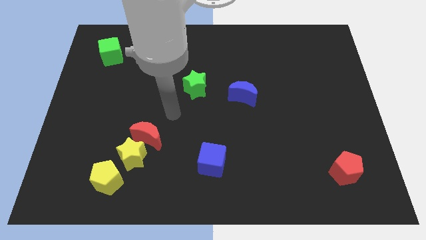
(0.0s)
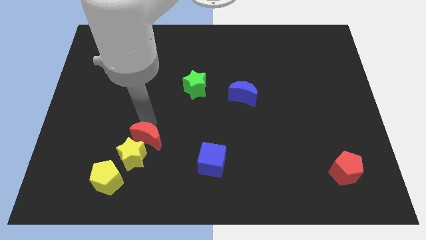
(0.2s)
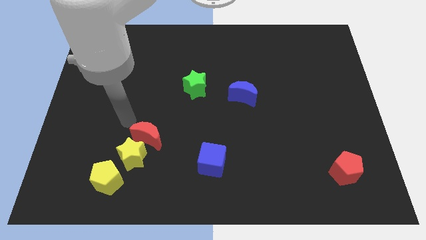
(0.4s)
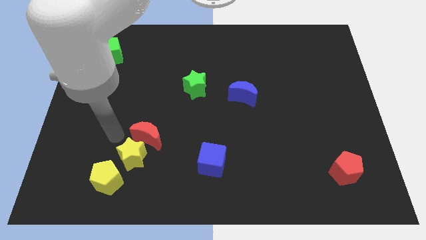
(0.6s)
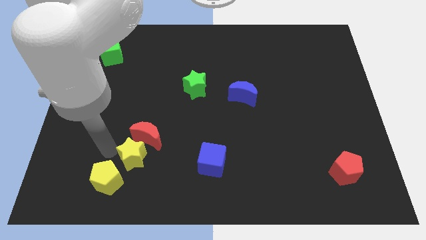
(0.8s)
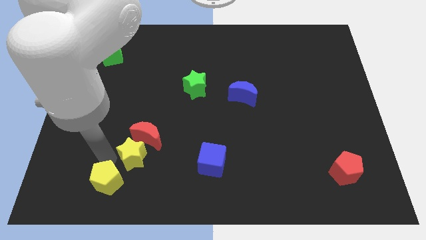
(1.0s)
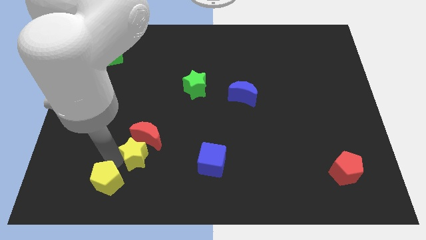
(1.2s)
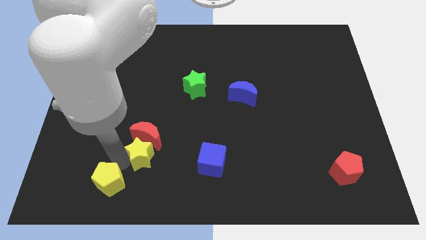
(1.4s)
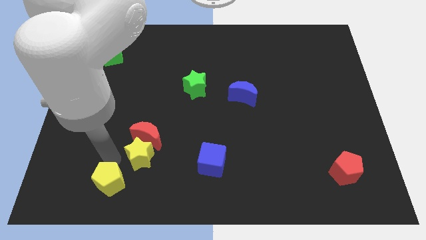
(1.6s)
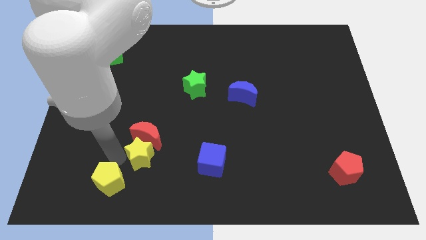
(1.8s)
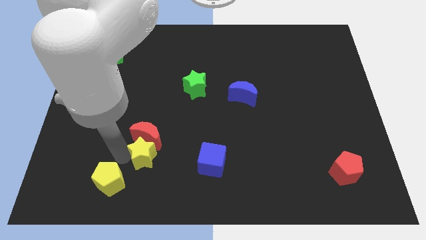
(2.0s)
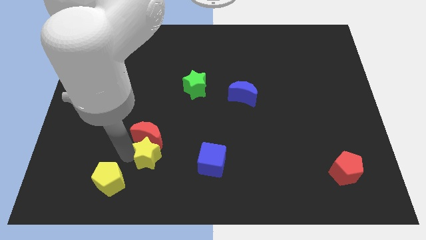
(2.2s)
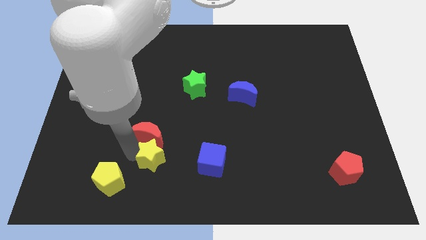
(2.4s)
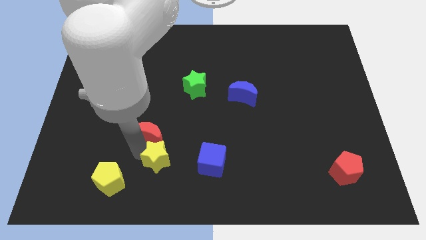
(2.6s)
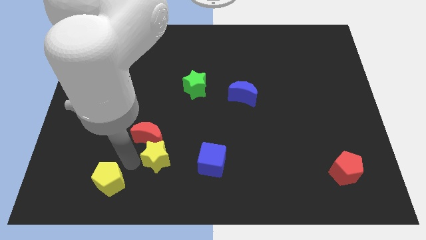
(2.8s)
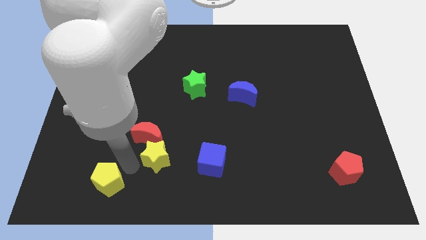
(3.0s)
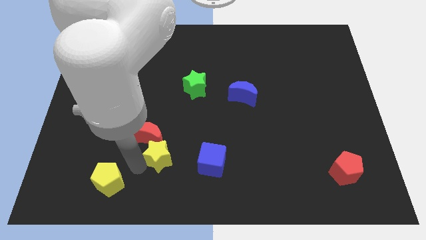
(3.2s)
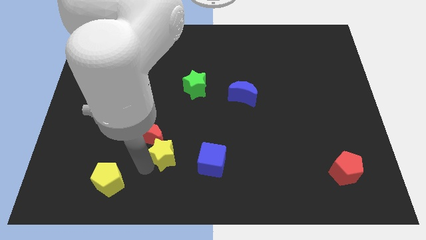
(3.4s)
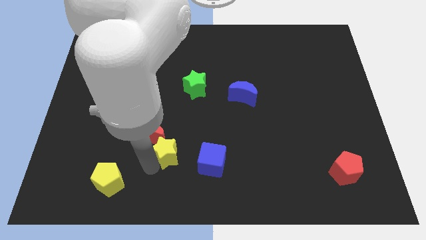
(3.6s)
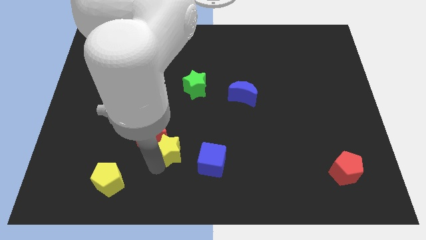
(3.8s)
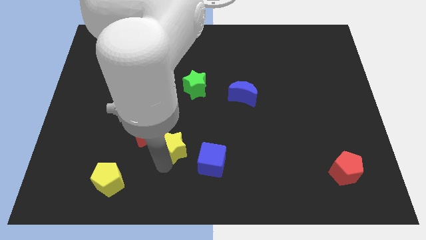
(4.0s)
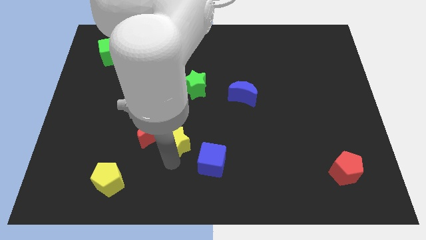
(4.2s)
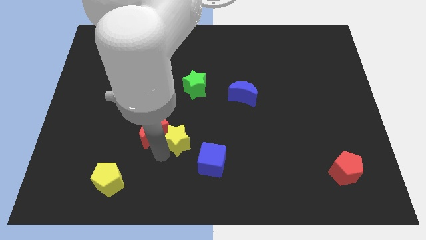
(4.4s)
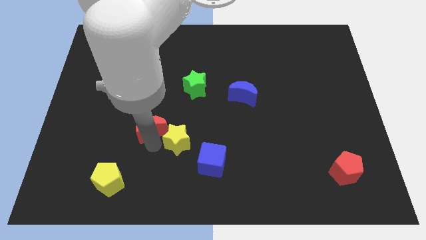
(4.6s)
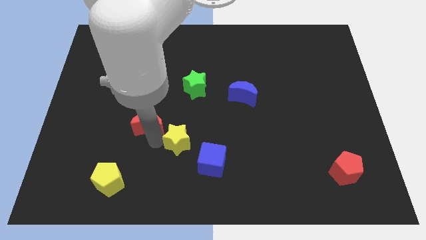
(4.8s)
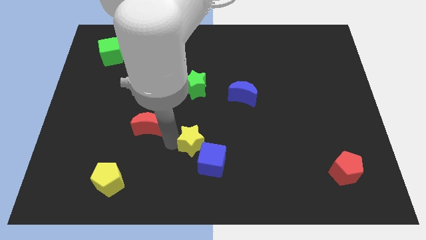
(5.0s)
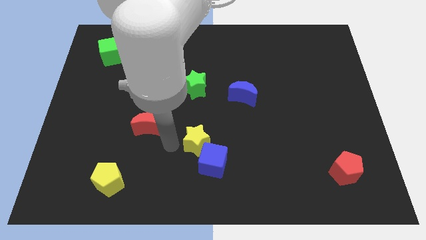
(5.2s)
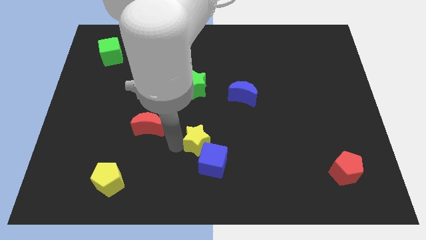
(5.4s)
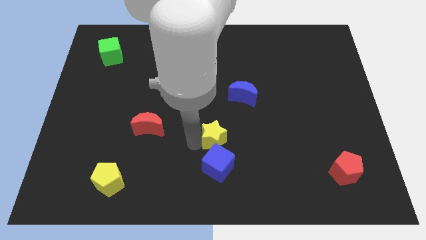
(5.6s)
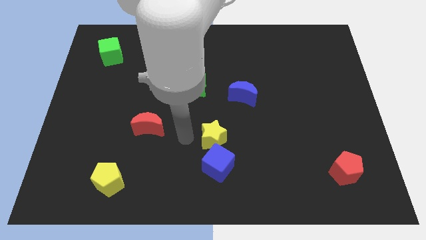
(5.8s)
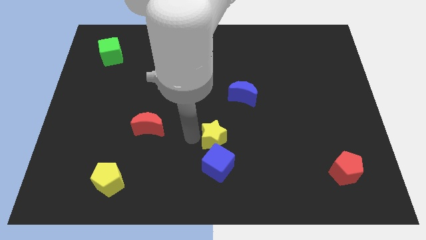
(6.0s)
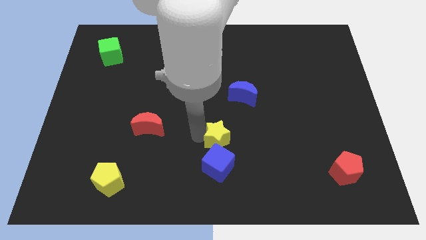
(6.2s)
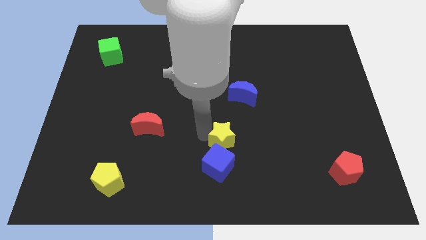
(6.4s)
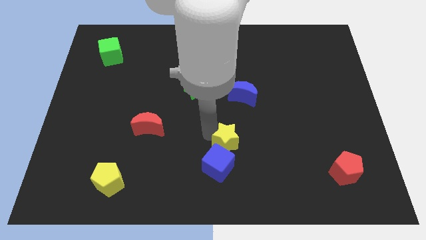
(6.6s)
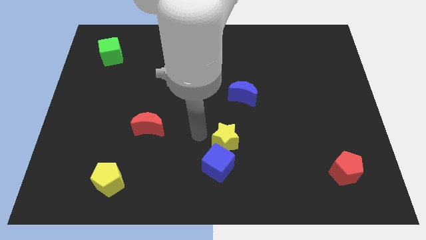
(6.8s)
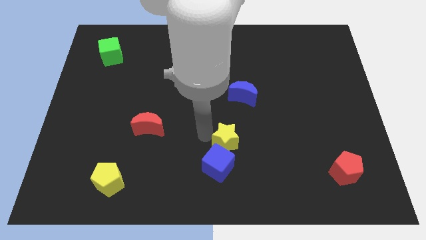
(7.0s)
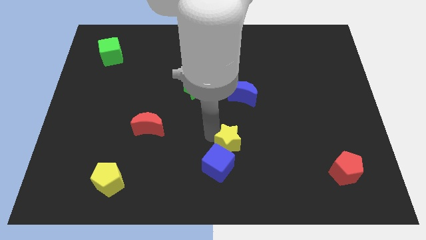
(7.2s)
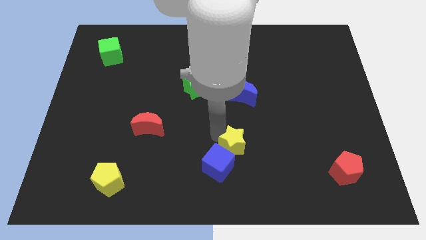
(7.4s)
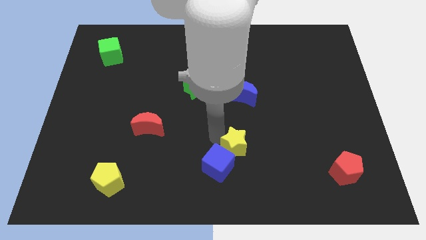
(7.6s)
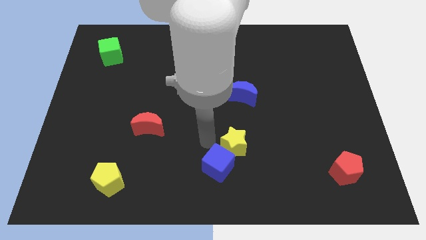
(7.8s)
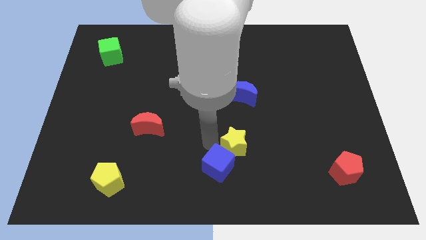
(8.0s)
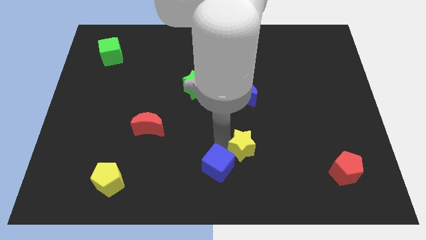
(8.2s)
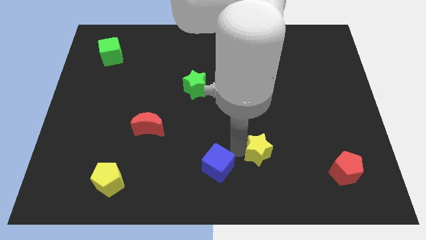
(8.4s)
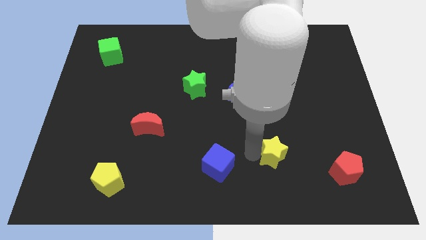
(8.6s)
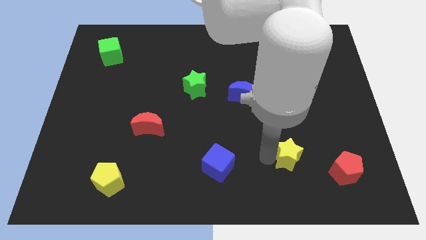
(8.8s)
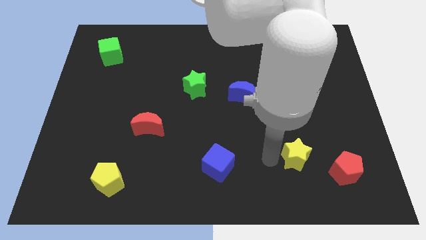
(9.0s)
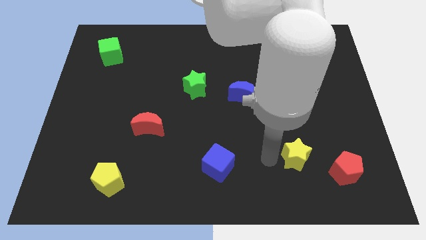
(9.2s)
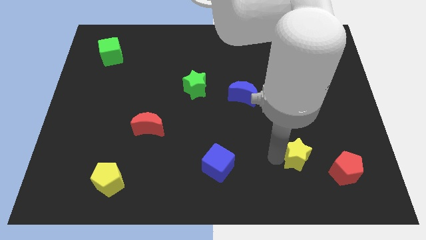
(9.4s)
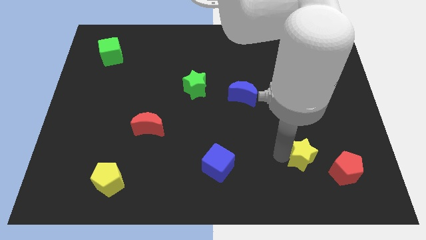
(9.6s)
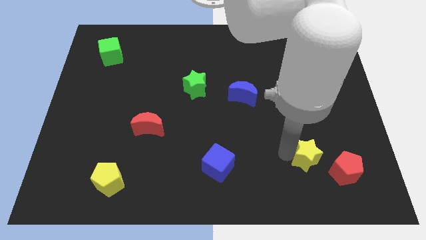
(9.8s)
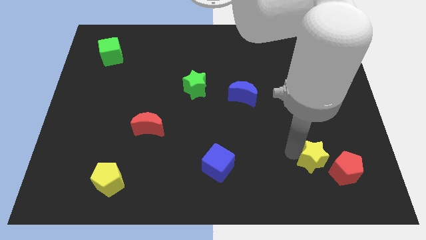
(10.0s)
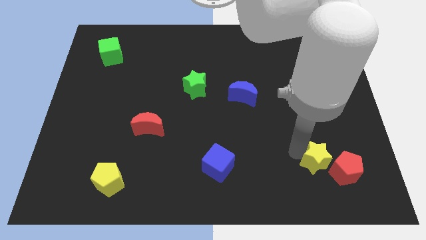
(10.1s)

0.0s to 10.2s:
slide the yellow star to the red pentagon

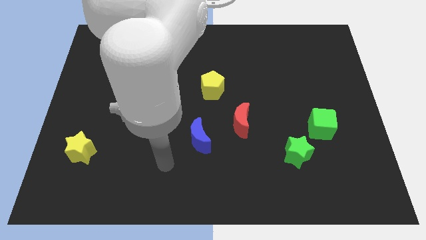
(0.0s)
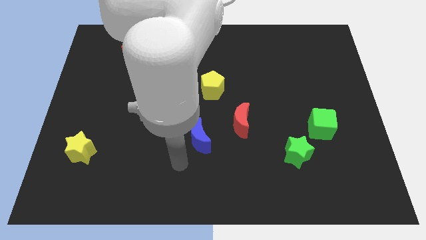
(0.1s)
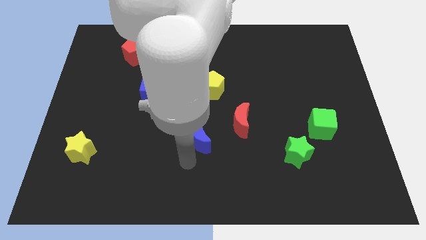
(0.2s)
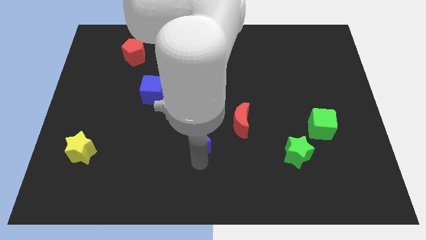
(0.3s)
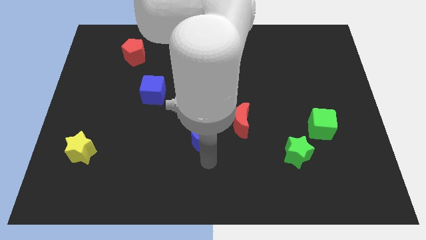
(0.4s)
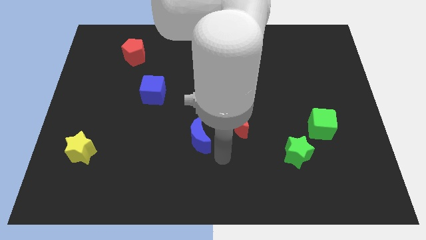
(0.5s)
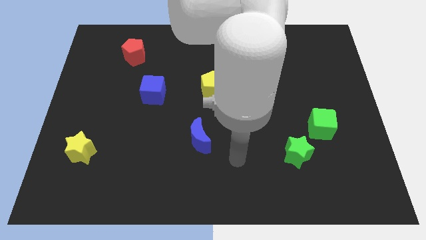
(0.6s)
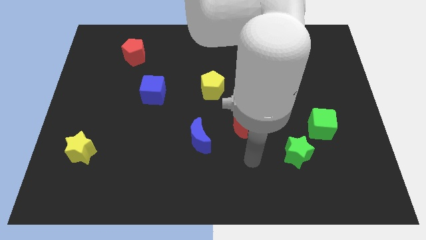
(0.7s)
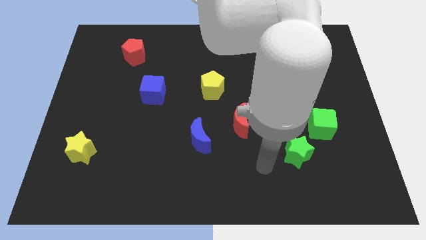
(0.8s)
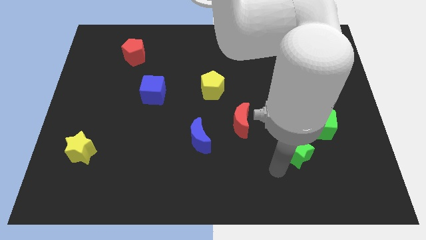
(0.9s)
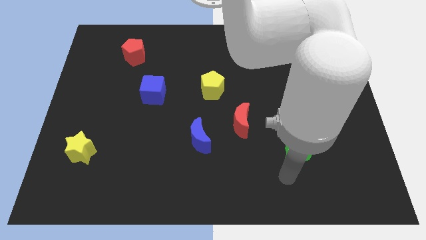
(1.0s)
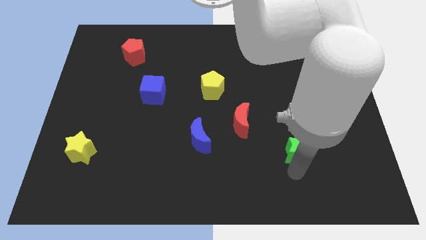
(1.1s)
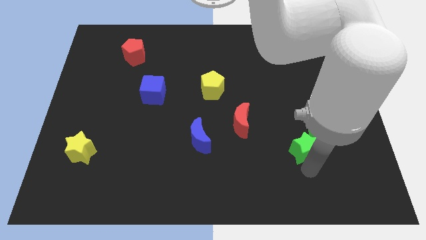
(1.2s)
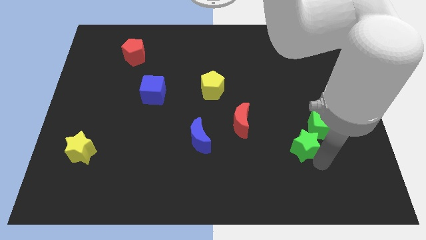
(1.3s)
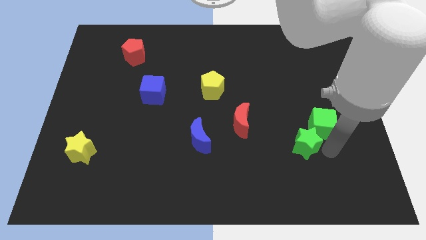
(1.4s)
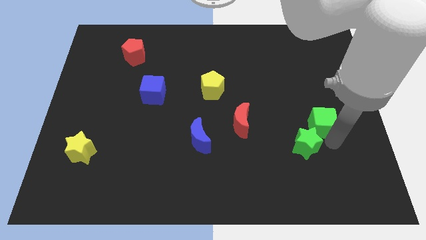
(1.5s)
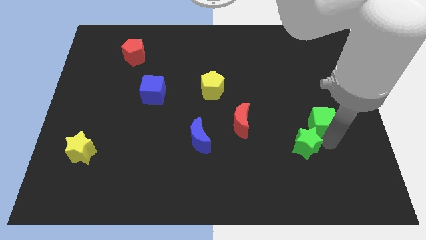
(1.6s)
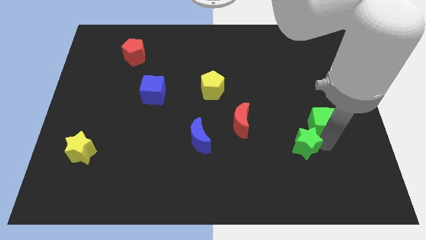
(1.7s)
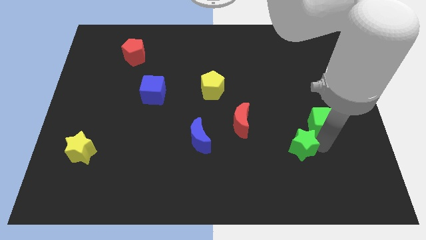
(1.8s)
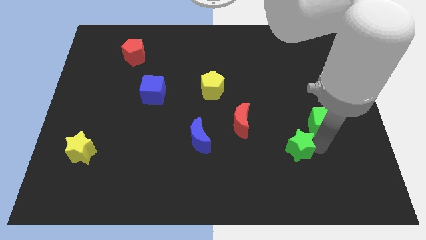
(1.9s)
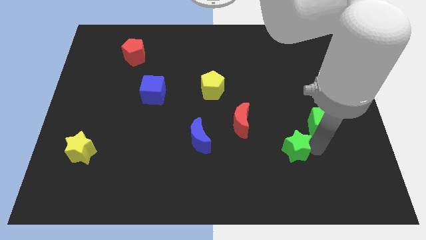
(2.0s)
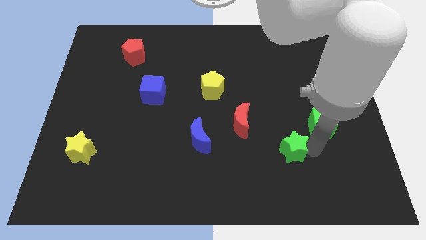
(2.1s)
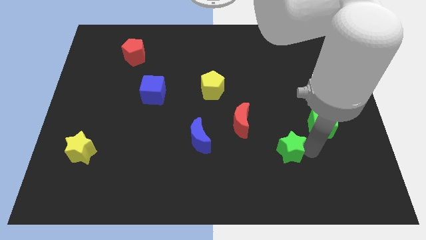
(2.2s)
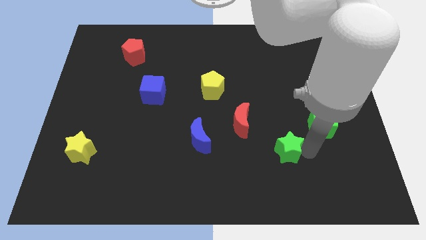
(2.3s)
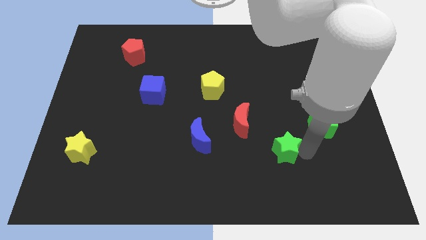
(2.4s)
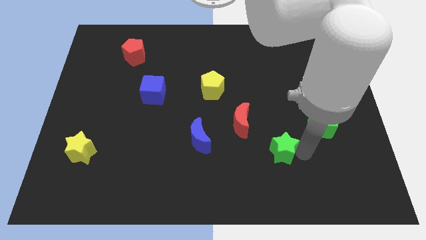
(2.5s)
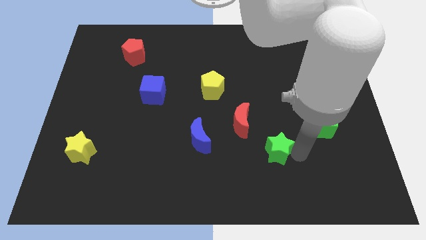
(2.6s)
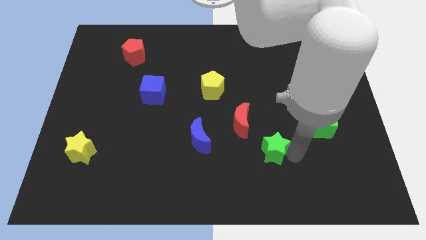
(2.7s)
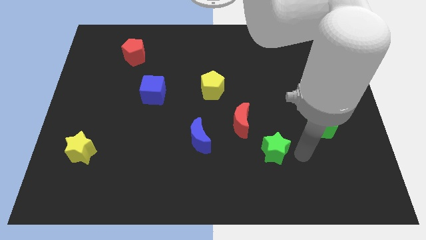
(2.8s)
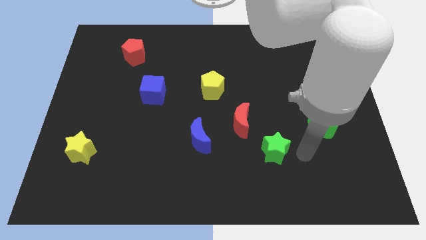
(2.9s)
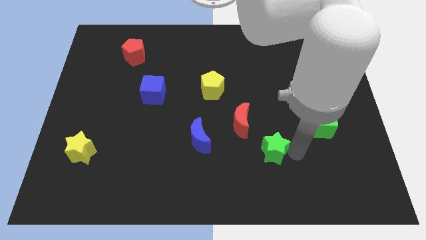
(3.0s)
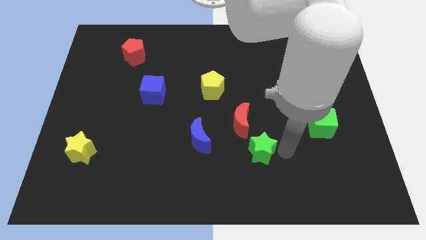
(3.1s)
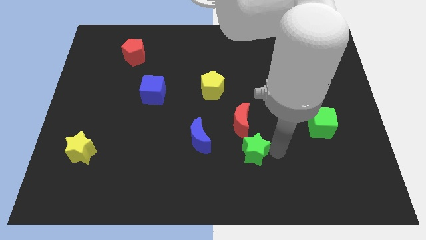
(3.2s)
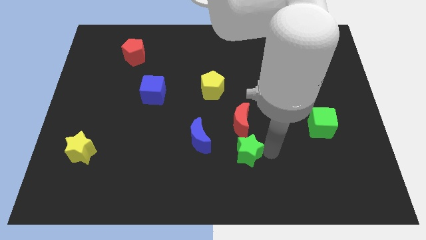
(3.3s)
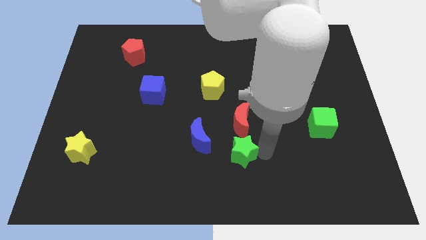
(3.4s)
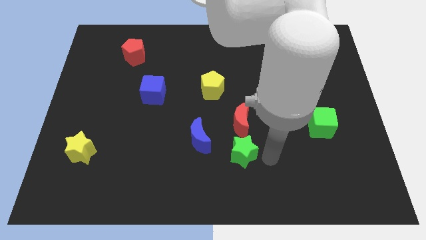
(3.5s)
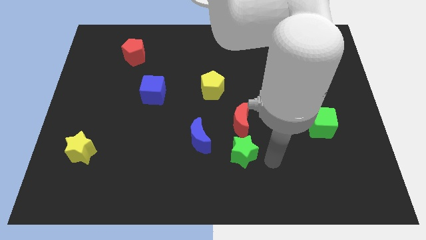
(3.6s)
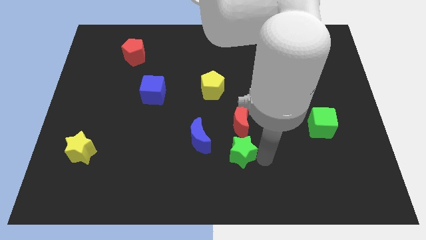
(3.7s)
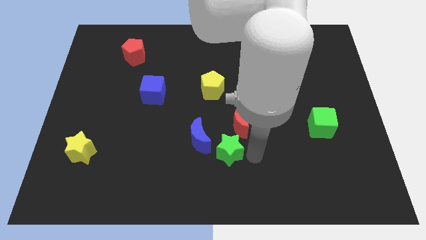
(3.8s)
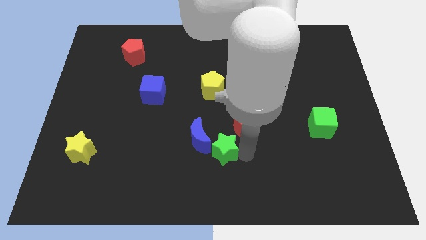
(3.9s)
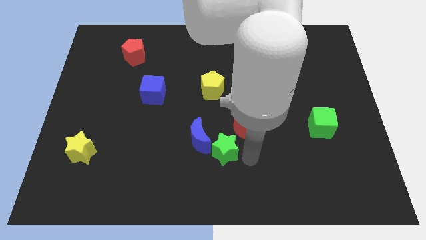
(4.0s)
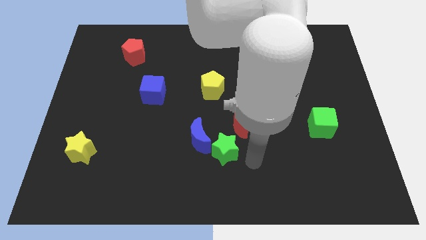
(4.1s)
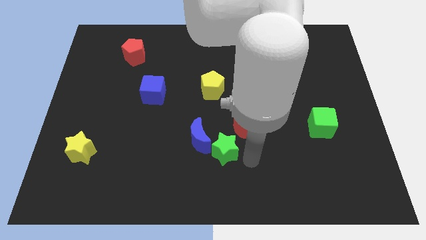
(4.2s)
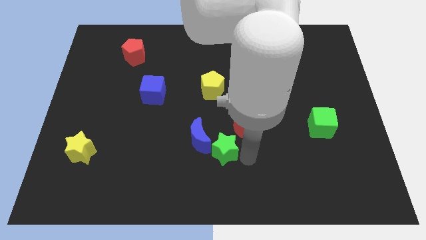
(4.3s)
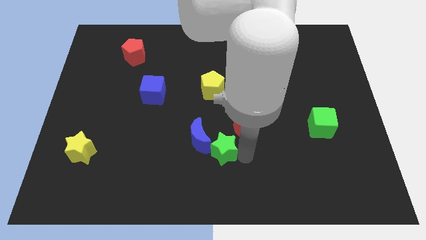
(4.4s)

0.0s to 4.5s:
move the green star next to the blue moon
